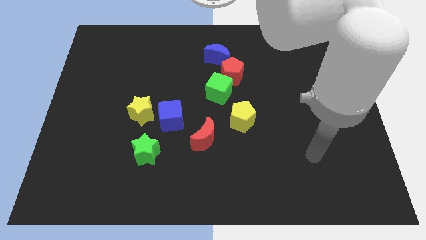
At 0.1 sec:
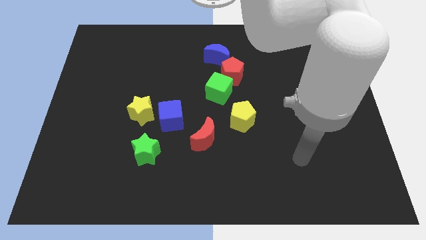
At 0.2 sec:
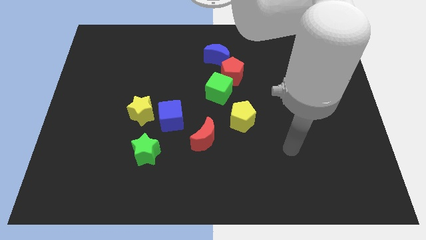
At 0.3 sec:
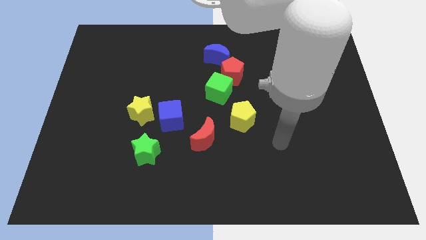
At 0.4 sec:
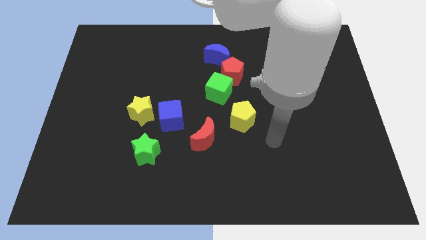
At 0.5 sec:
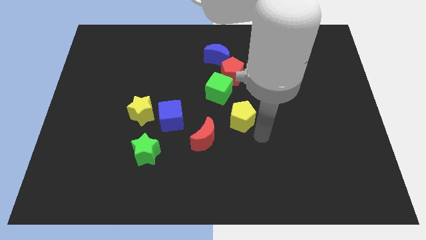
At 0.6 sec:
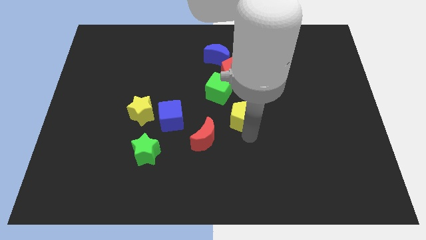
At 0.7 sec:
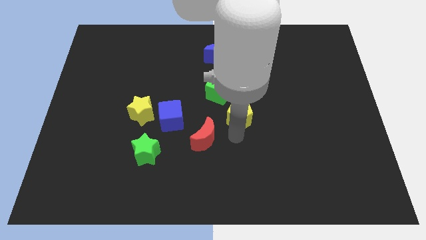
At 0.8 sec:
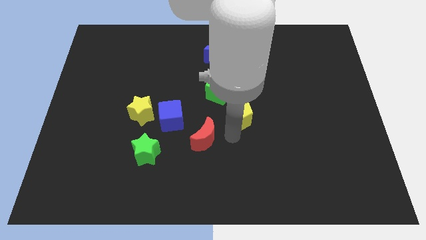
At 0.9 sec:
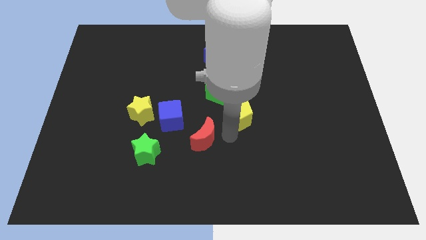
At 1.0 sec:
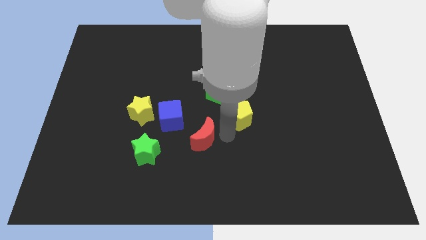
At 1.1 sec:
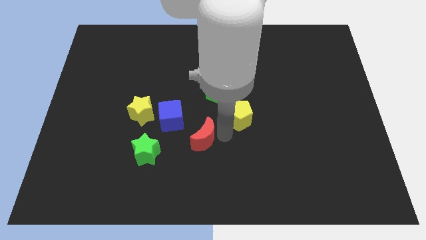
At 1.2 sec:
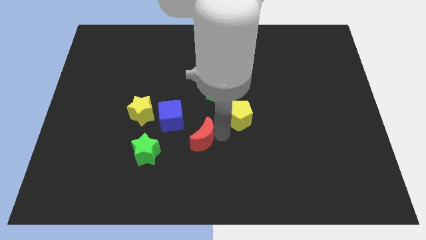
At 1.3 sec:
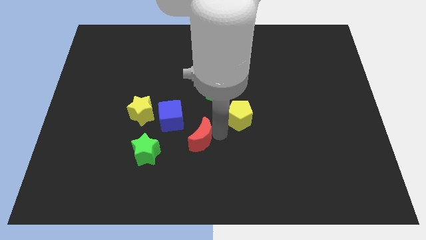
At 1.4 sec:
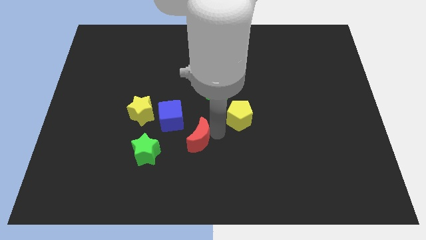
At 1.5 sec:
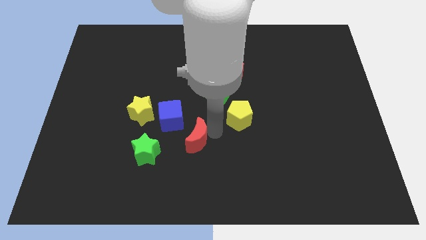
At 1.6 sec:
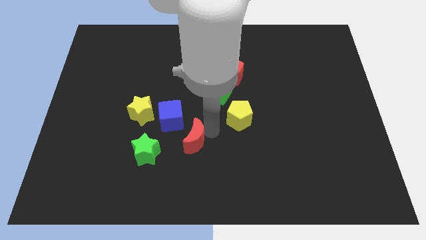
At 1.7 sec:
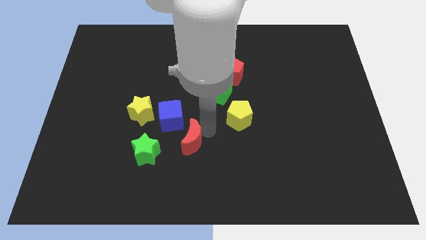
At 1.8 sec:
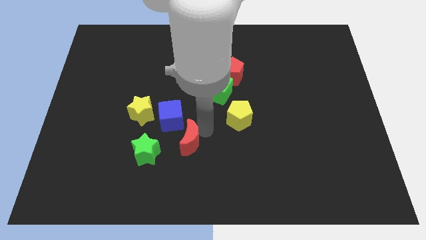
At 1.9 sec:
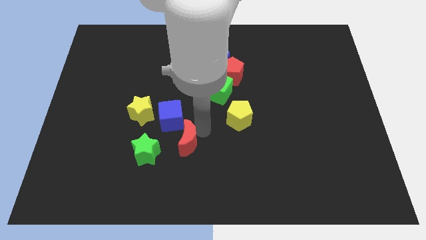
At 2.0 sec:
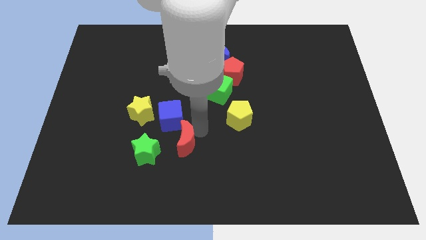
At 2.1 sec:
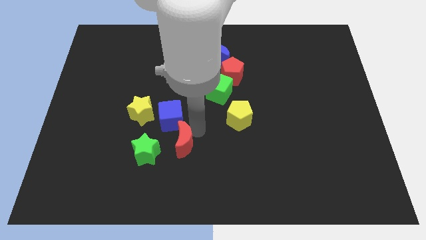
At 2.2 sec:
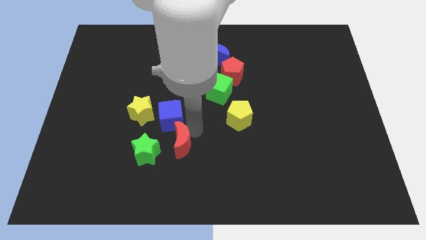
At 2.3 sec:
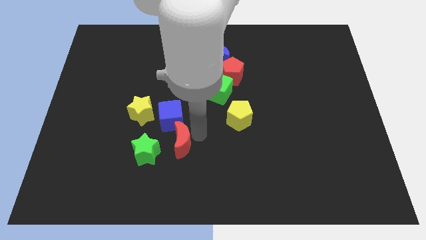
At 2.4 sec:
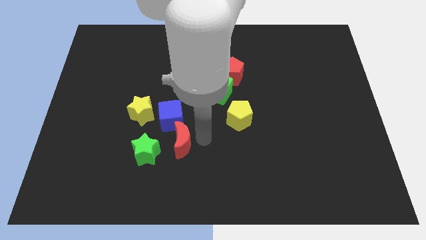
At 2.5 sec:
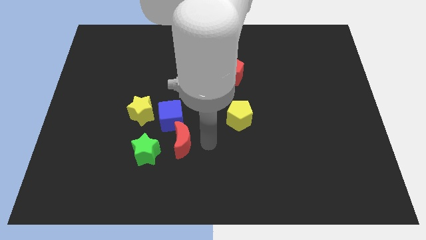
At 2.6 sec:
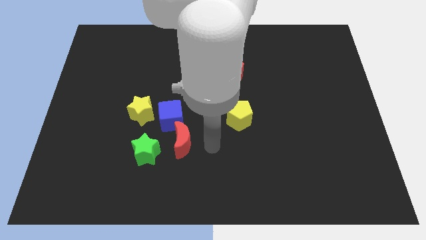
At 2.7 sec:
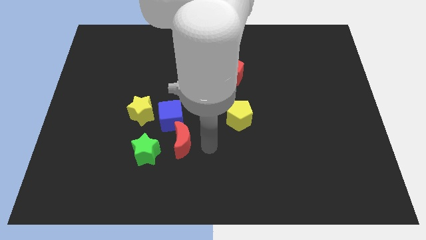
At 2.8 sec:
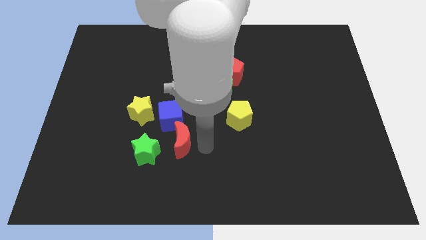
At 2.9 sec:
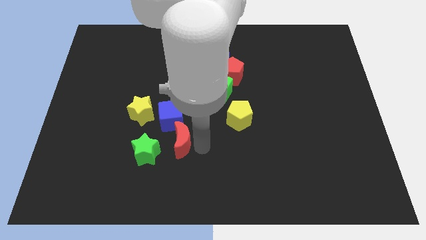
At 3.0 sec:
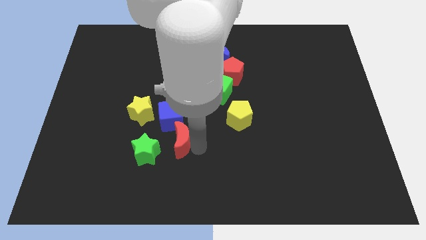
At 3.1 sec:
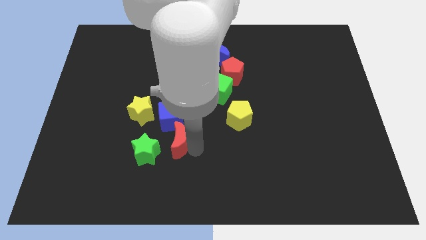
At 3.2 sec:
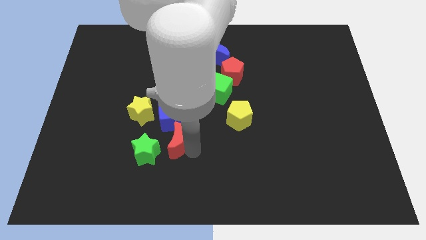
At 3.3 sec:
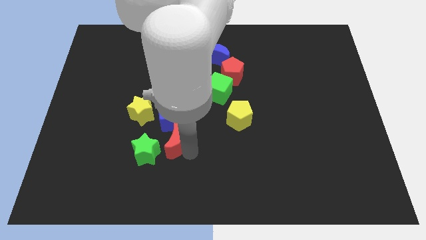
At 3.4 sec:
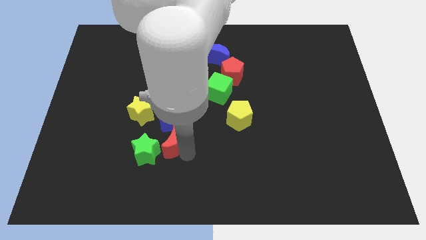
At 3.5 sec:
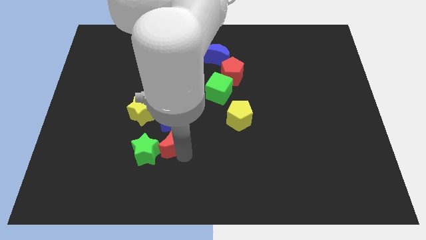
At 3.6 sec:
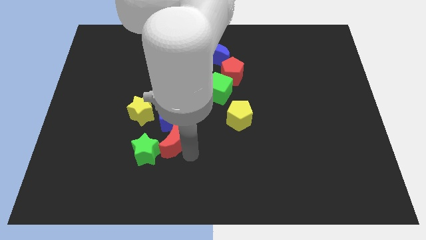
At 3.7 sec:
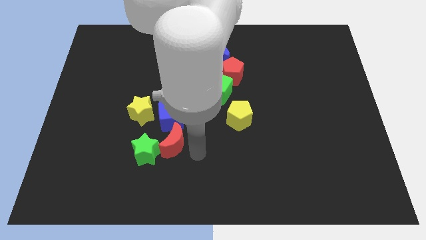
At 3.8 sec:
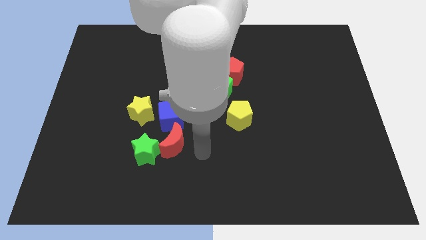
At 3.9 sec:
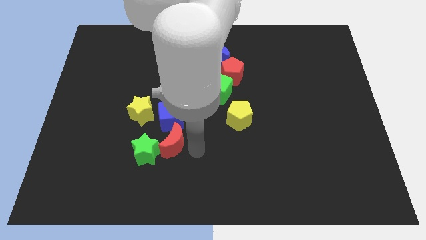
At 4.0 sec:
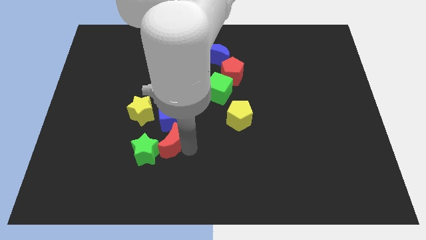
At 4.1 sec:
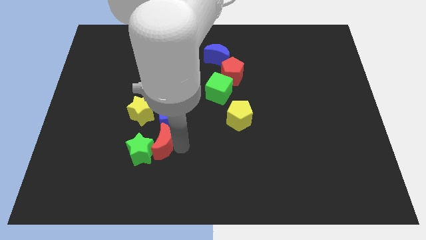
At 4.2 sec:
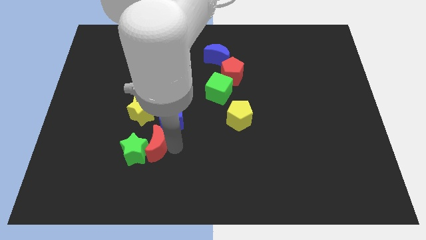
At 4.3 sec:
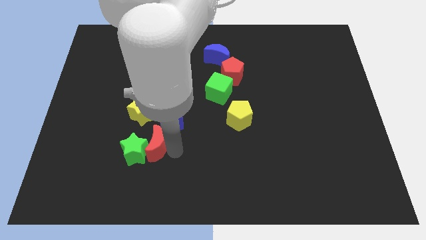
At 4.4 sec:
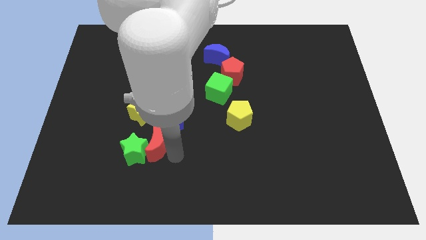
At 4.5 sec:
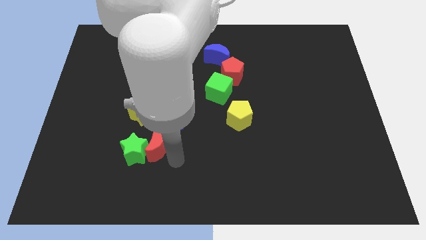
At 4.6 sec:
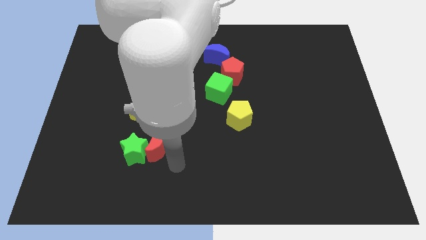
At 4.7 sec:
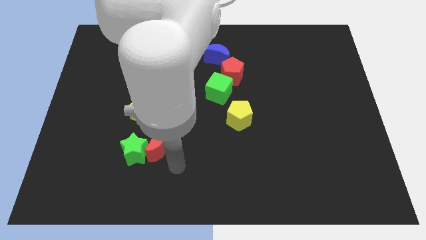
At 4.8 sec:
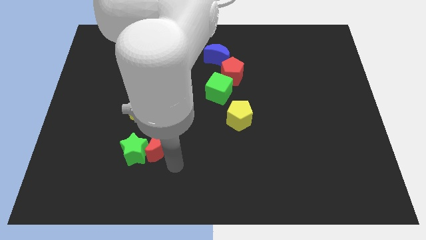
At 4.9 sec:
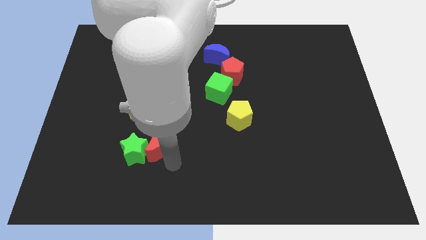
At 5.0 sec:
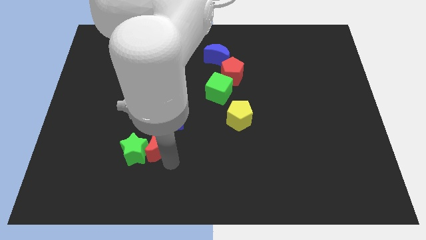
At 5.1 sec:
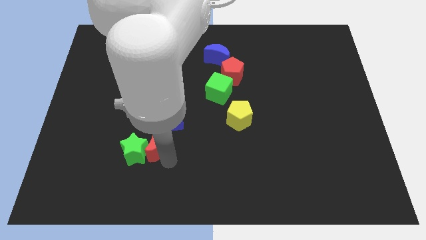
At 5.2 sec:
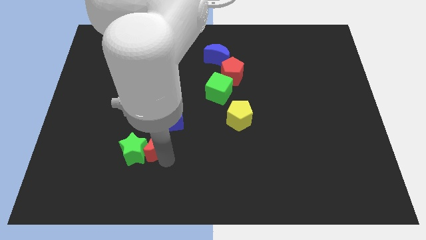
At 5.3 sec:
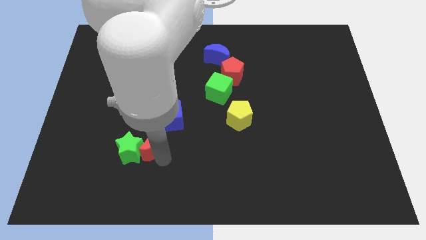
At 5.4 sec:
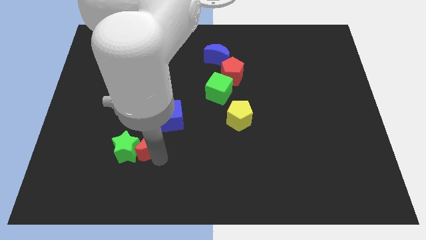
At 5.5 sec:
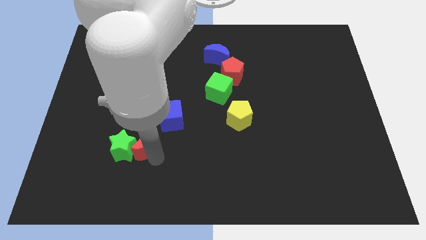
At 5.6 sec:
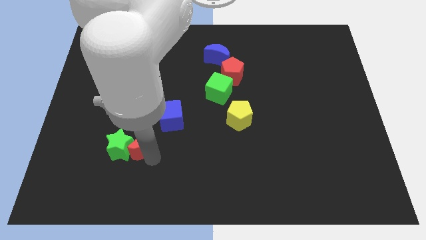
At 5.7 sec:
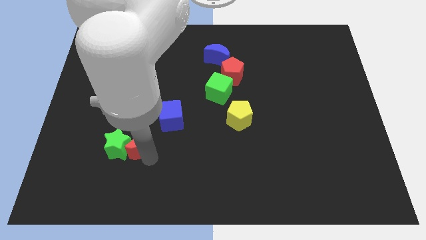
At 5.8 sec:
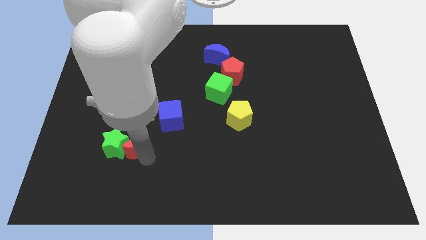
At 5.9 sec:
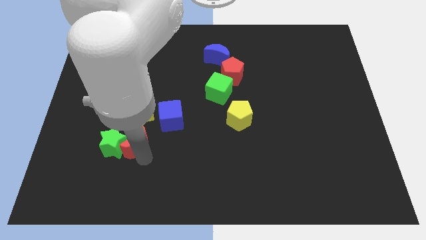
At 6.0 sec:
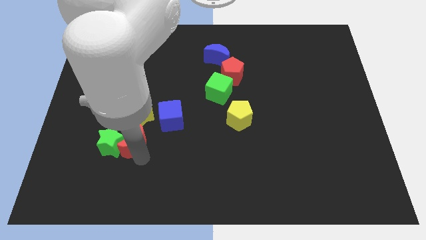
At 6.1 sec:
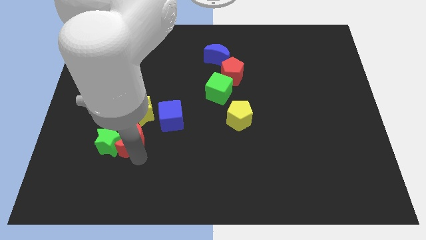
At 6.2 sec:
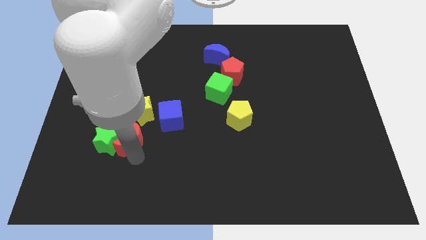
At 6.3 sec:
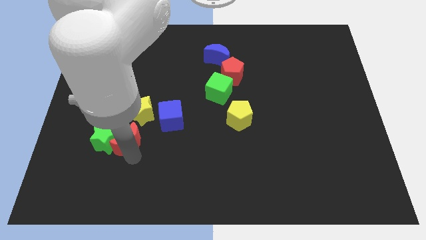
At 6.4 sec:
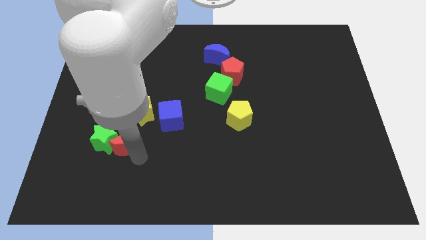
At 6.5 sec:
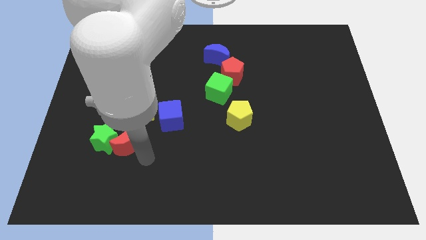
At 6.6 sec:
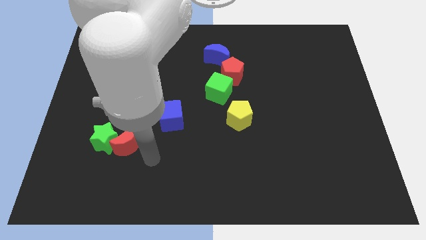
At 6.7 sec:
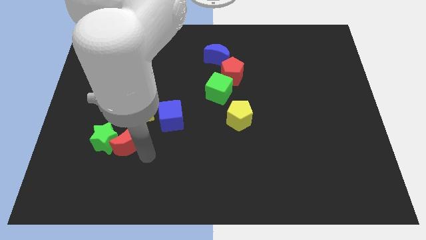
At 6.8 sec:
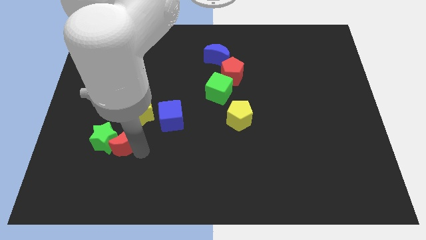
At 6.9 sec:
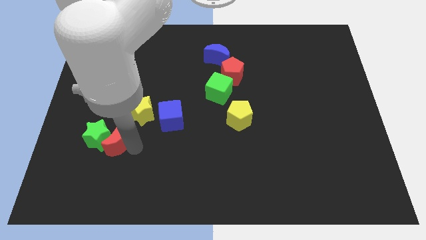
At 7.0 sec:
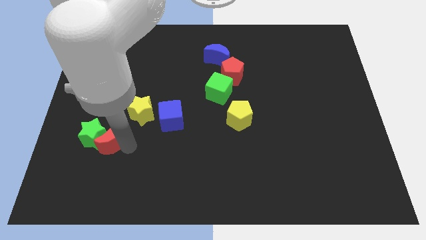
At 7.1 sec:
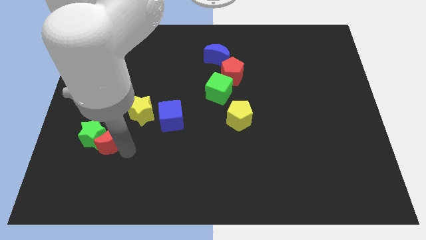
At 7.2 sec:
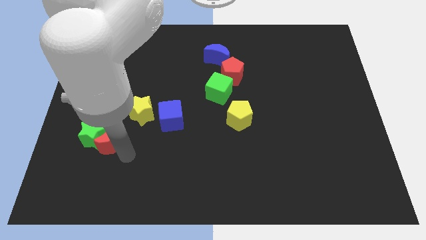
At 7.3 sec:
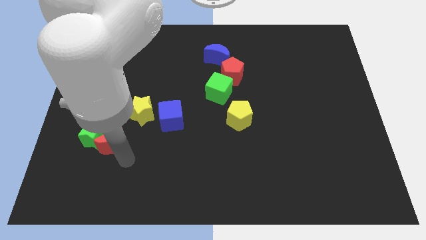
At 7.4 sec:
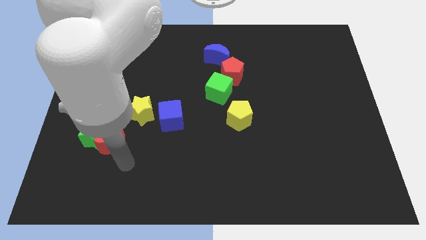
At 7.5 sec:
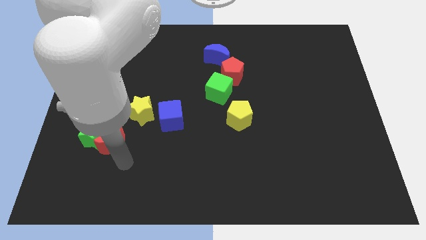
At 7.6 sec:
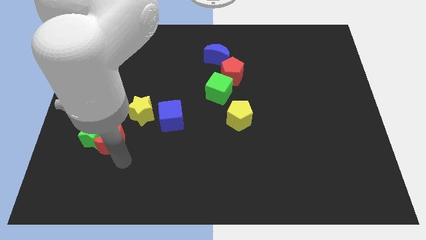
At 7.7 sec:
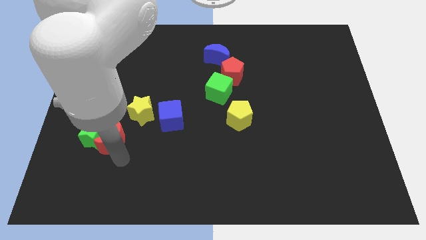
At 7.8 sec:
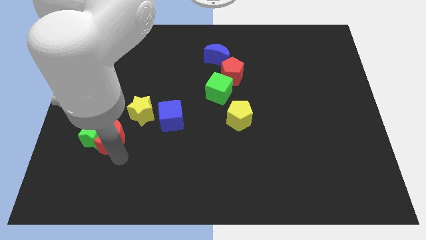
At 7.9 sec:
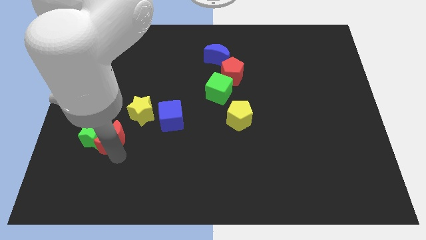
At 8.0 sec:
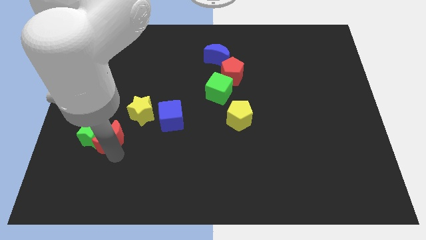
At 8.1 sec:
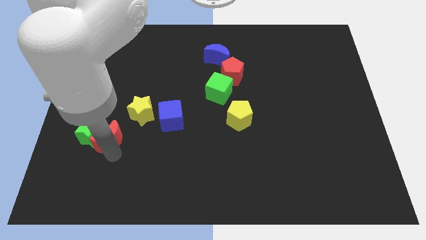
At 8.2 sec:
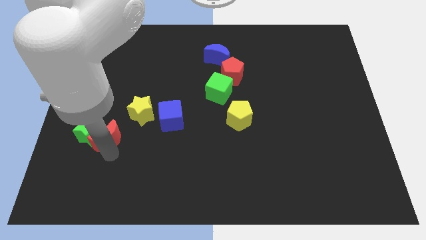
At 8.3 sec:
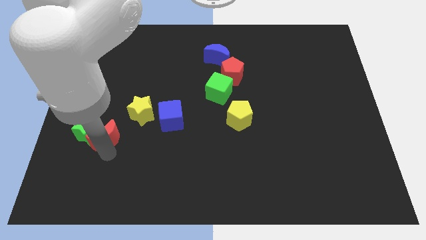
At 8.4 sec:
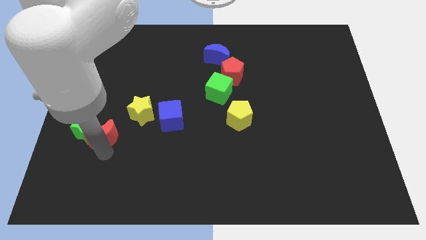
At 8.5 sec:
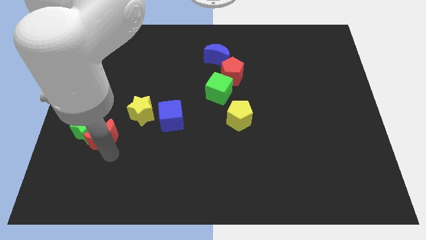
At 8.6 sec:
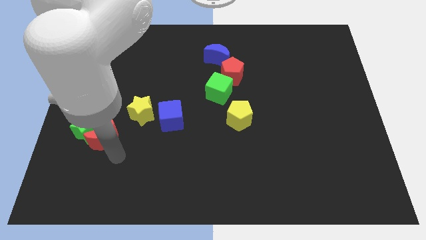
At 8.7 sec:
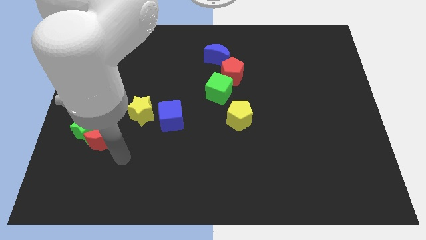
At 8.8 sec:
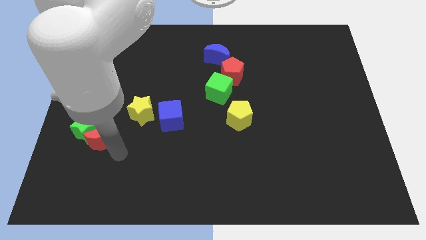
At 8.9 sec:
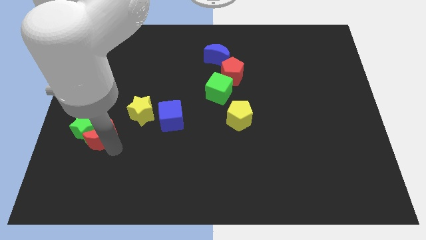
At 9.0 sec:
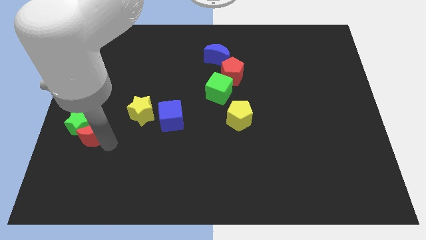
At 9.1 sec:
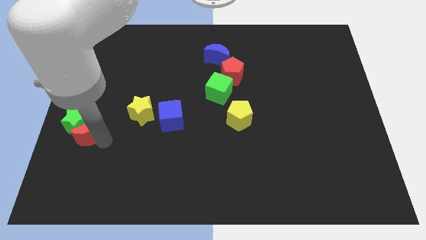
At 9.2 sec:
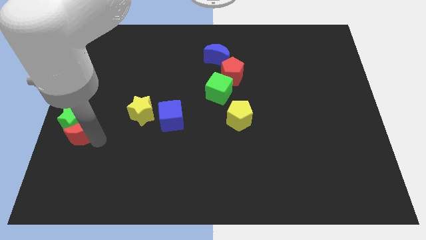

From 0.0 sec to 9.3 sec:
put the red moon to the left side of the board
